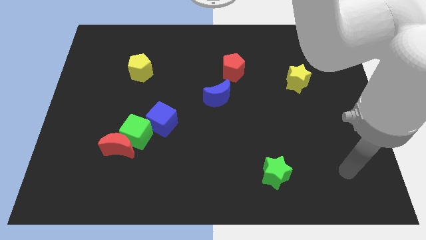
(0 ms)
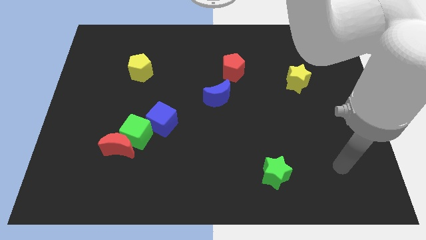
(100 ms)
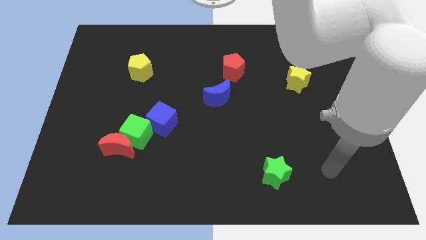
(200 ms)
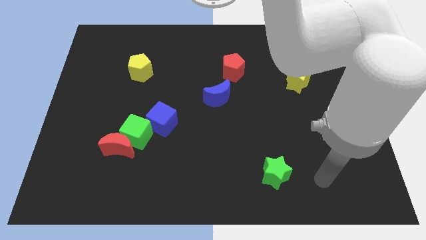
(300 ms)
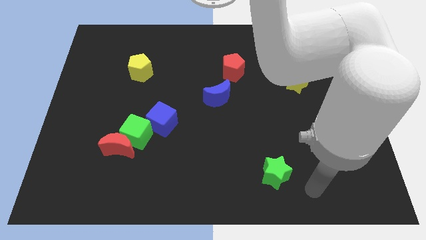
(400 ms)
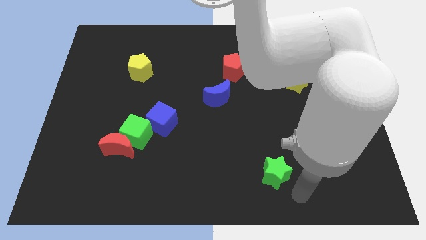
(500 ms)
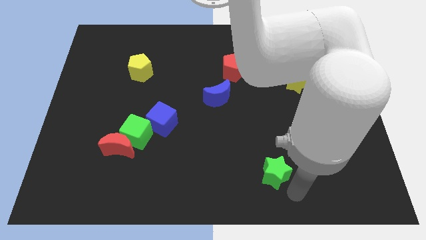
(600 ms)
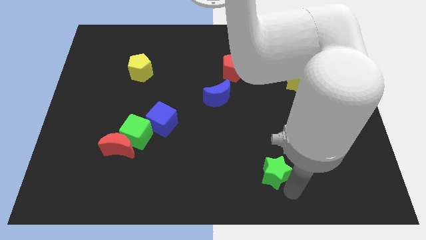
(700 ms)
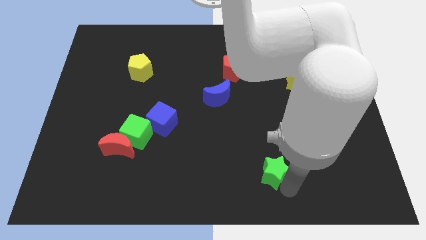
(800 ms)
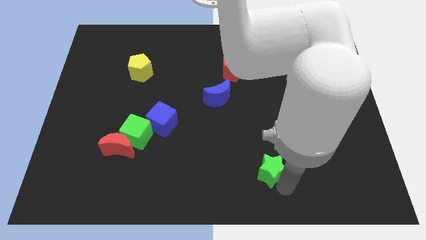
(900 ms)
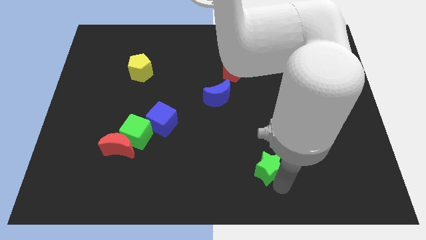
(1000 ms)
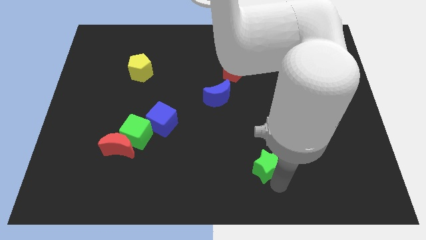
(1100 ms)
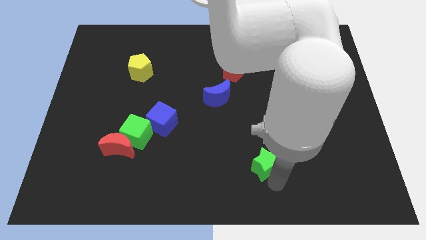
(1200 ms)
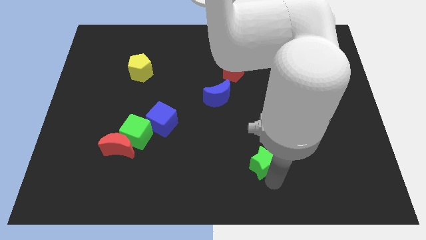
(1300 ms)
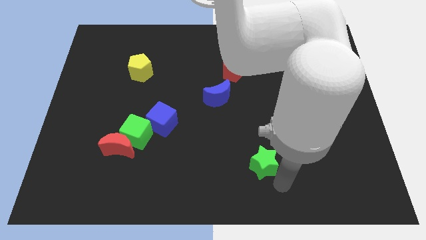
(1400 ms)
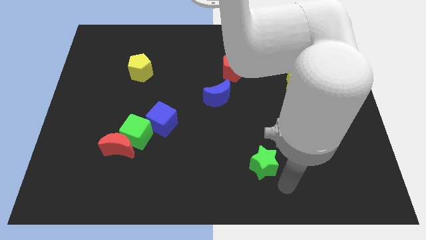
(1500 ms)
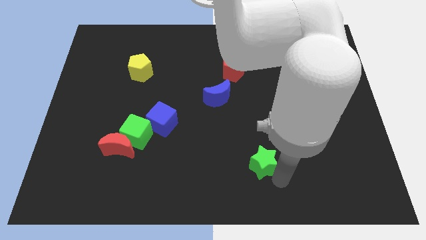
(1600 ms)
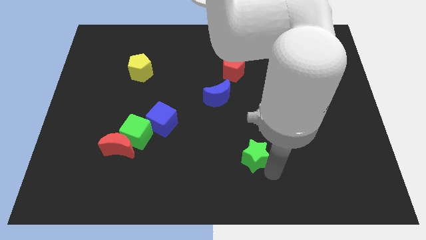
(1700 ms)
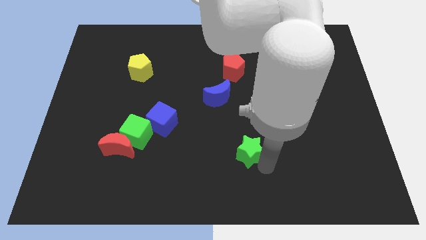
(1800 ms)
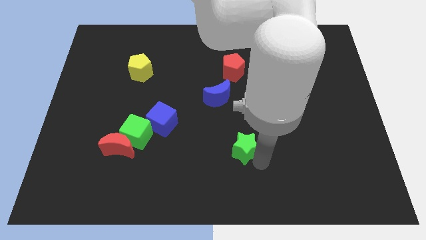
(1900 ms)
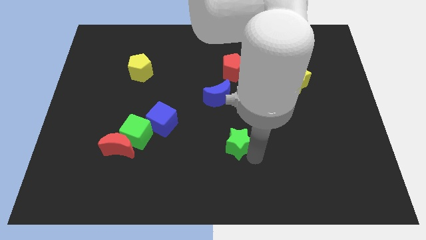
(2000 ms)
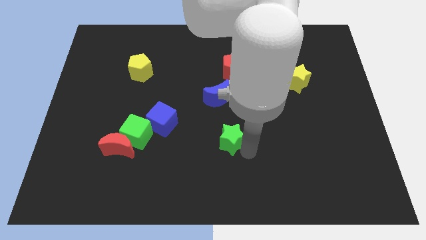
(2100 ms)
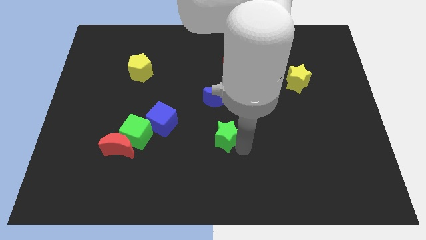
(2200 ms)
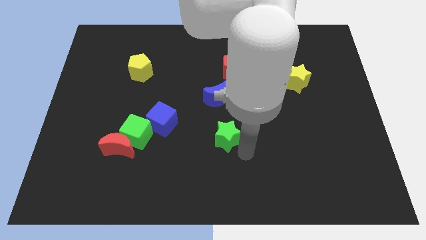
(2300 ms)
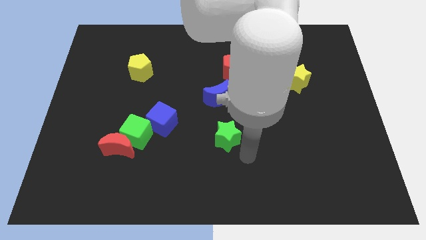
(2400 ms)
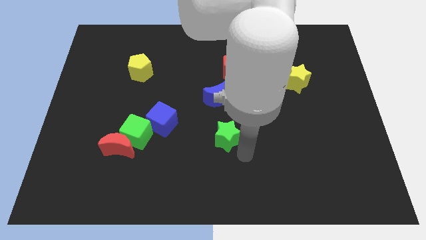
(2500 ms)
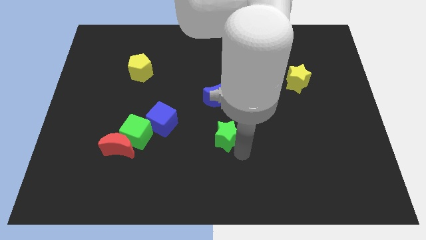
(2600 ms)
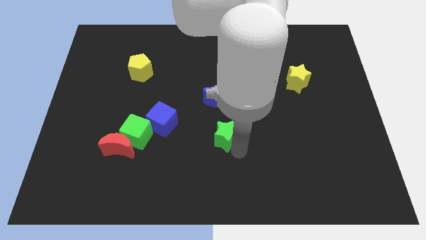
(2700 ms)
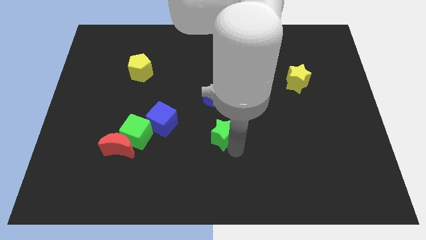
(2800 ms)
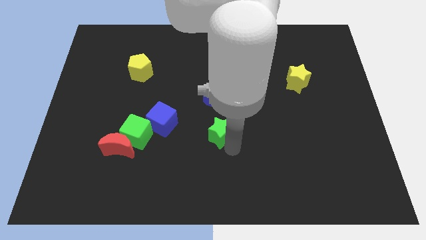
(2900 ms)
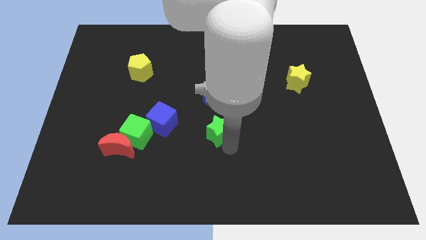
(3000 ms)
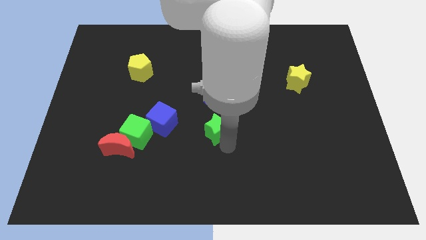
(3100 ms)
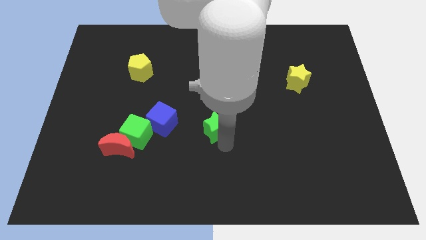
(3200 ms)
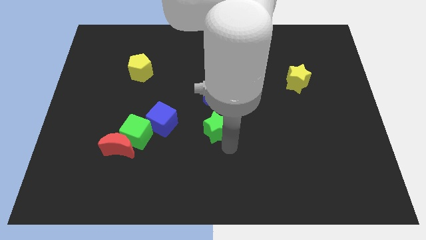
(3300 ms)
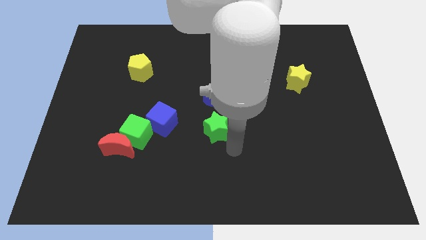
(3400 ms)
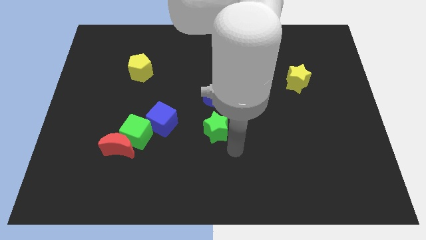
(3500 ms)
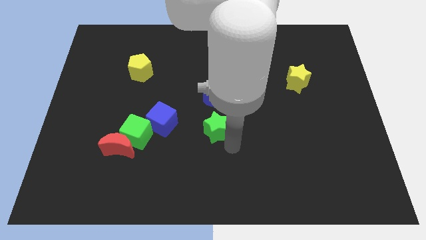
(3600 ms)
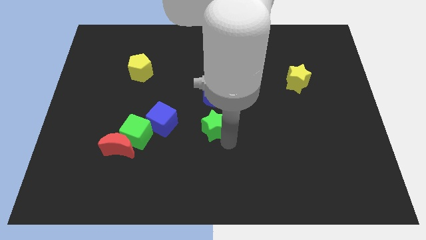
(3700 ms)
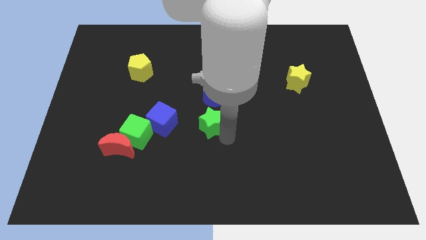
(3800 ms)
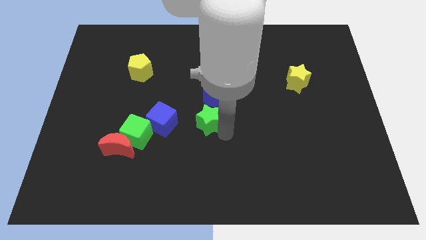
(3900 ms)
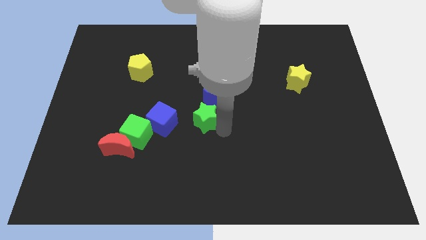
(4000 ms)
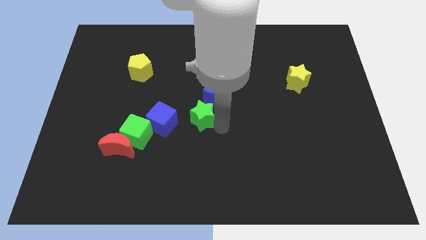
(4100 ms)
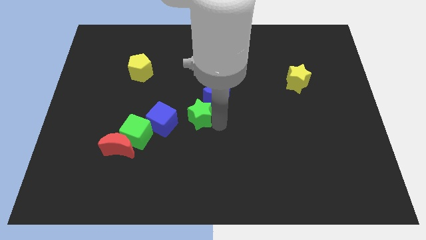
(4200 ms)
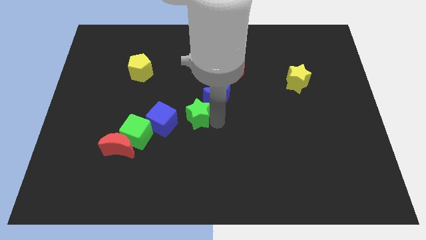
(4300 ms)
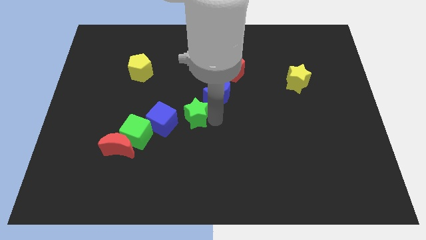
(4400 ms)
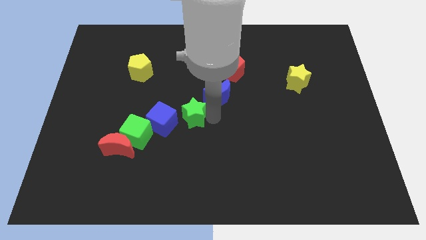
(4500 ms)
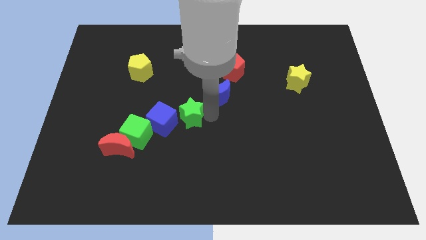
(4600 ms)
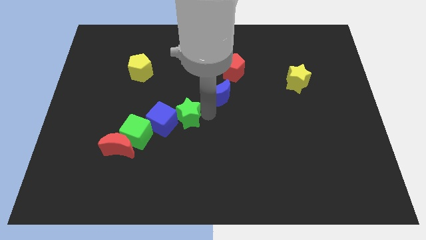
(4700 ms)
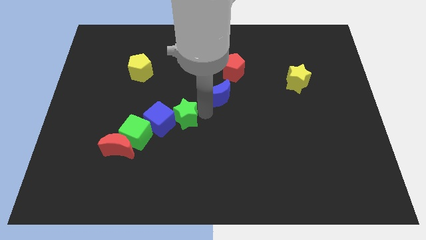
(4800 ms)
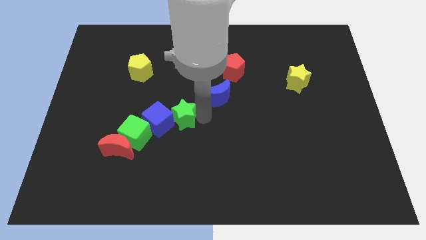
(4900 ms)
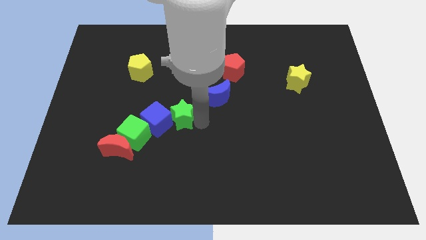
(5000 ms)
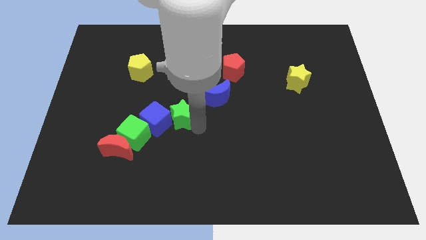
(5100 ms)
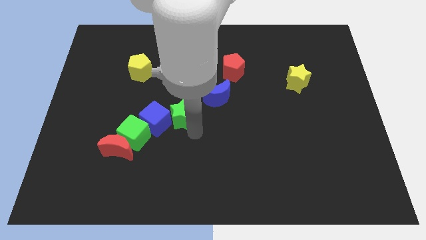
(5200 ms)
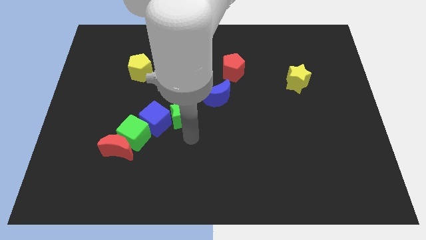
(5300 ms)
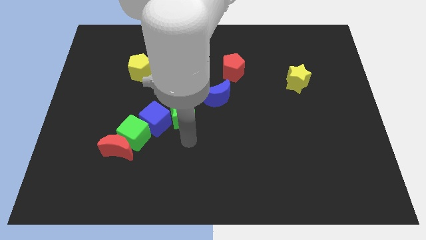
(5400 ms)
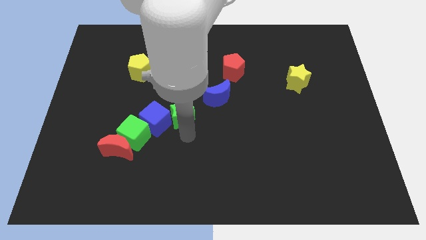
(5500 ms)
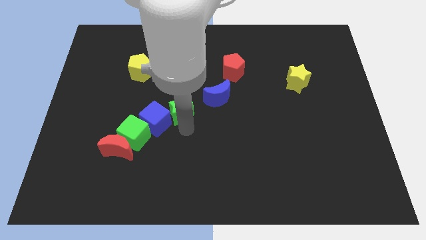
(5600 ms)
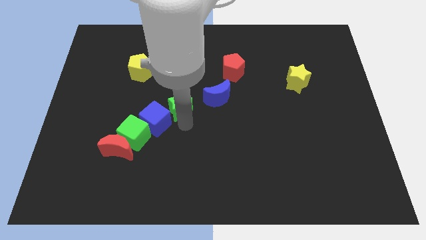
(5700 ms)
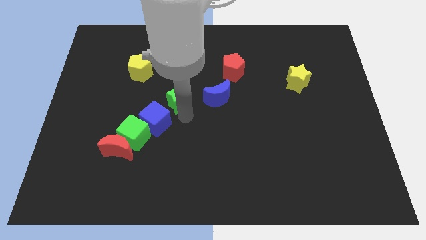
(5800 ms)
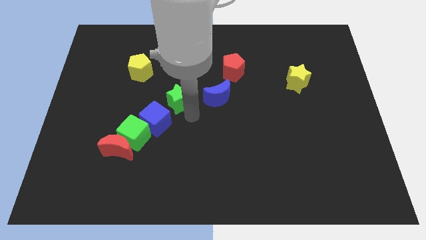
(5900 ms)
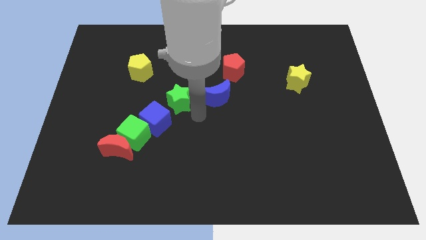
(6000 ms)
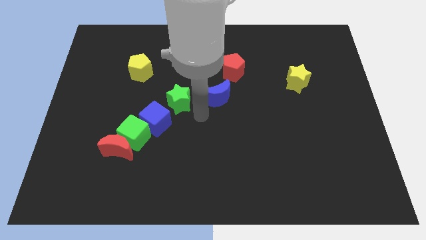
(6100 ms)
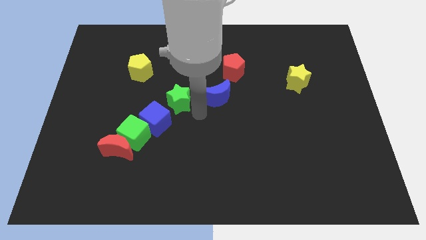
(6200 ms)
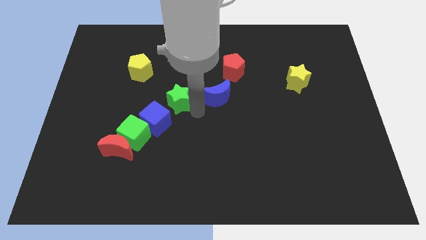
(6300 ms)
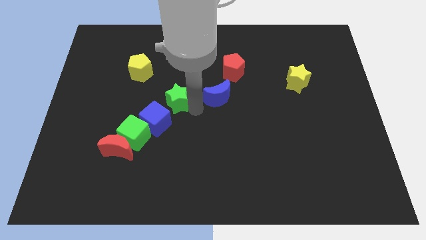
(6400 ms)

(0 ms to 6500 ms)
put the green star to the top side of the blue cube

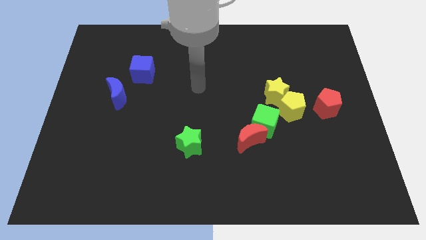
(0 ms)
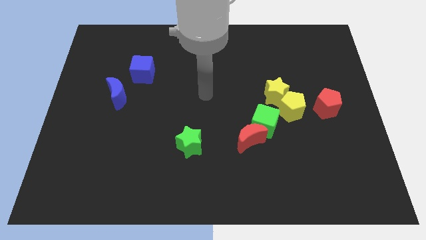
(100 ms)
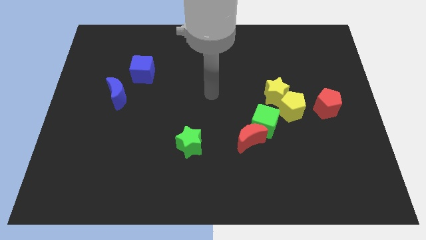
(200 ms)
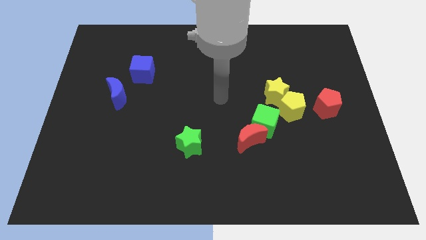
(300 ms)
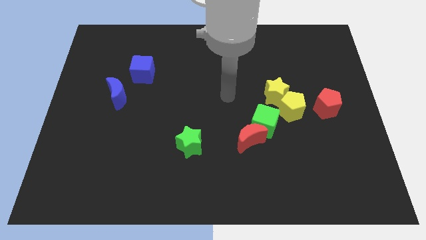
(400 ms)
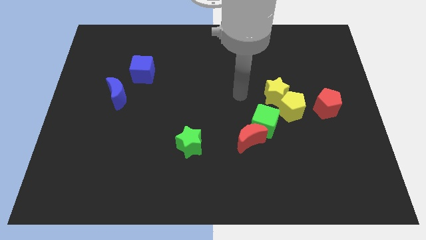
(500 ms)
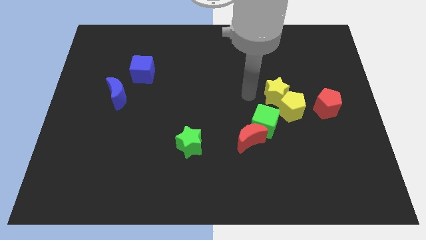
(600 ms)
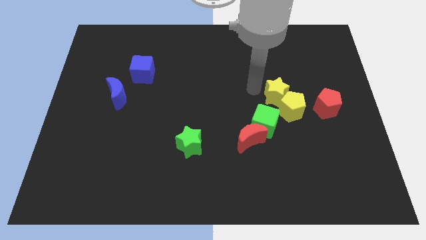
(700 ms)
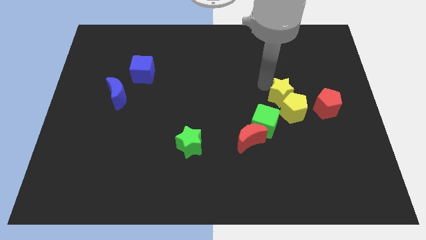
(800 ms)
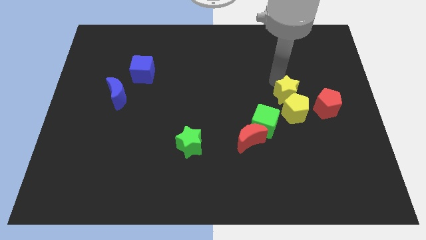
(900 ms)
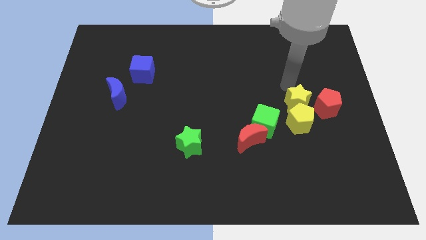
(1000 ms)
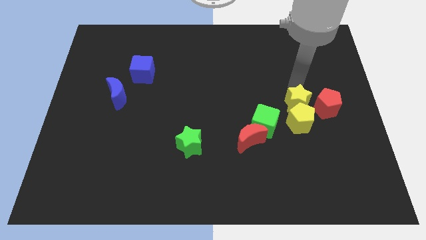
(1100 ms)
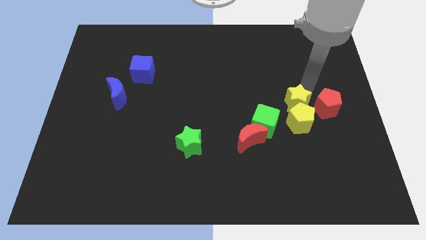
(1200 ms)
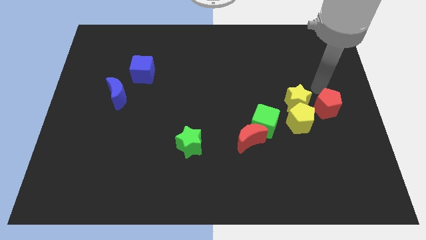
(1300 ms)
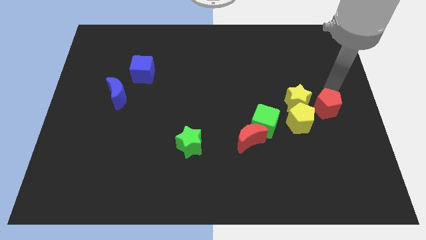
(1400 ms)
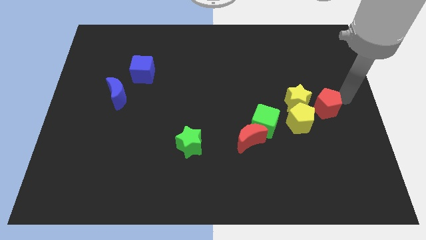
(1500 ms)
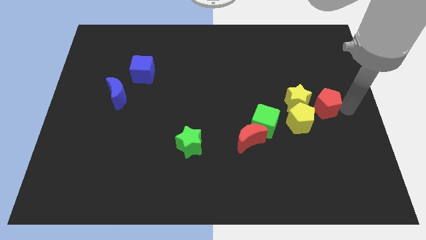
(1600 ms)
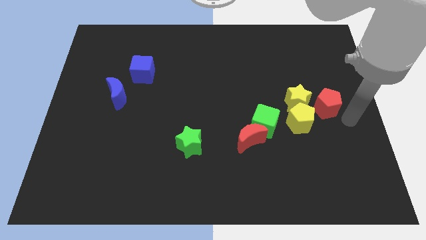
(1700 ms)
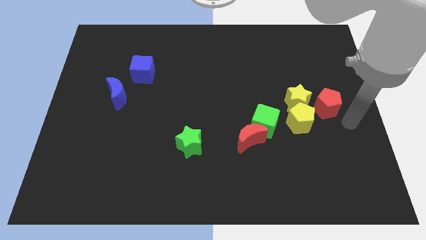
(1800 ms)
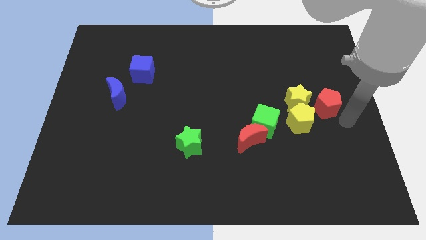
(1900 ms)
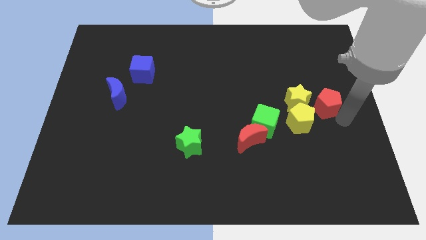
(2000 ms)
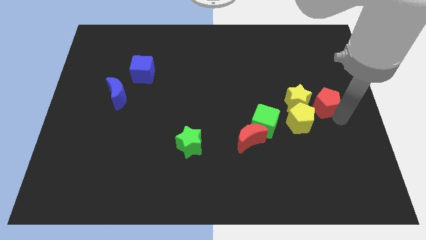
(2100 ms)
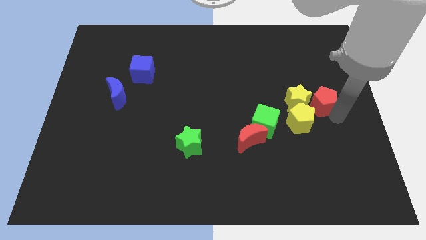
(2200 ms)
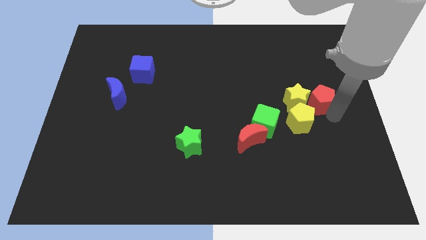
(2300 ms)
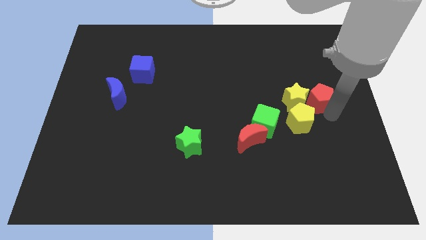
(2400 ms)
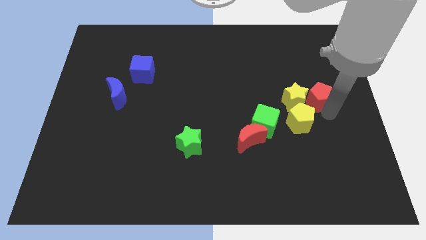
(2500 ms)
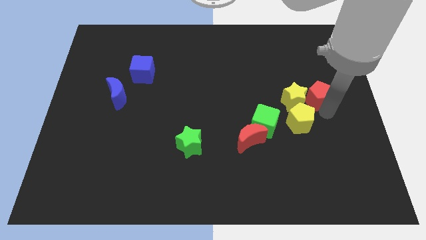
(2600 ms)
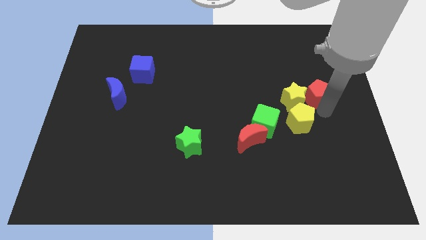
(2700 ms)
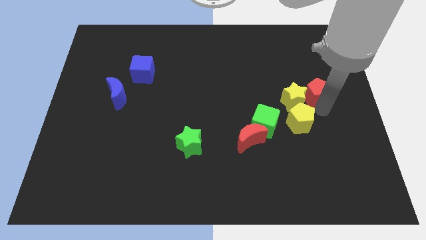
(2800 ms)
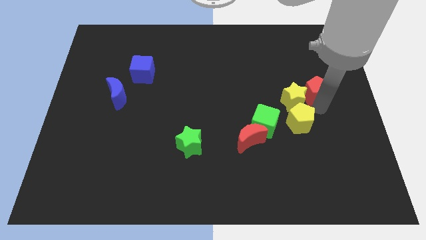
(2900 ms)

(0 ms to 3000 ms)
slide the red pentagon to the top side of the yellow pentagon
